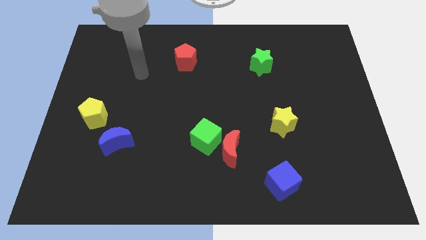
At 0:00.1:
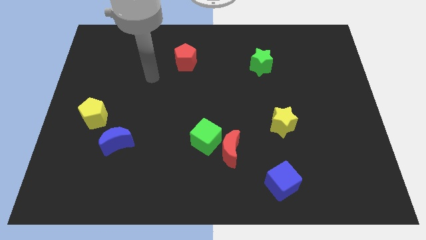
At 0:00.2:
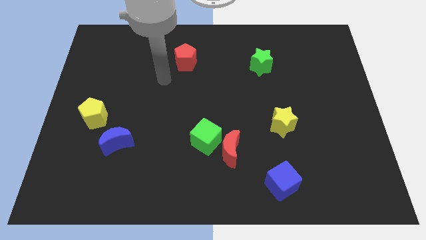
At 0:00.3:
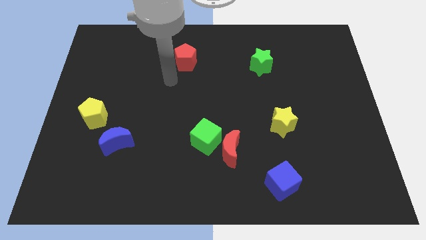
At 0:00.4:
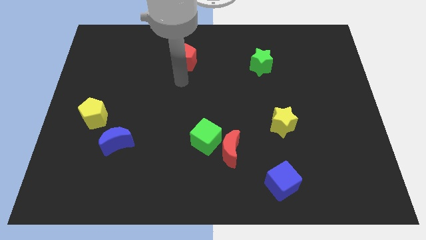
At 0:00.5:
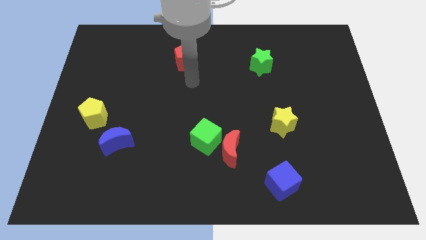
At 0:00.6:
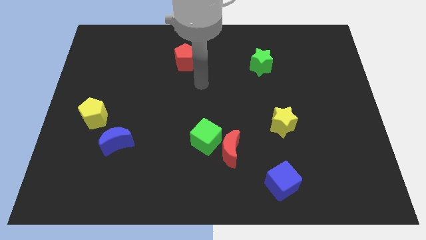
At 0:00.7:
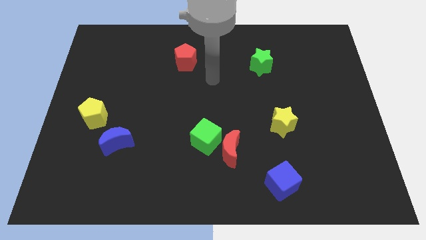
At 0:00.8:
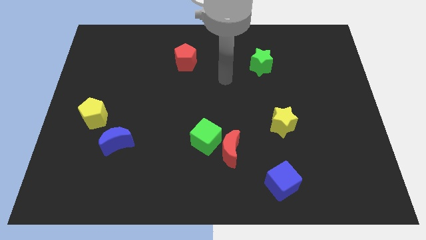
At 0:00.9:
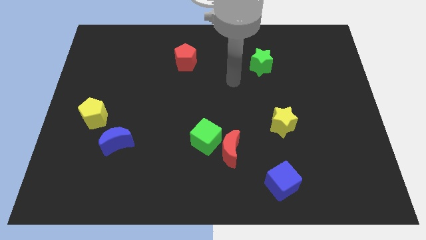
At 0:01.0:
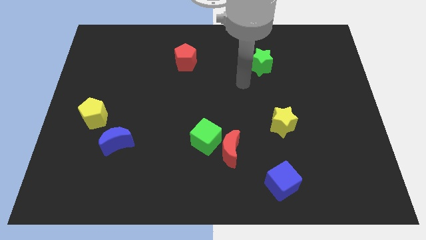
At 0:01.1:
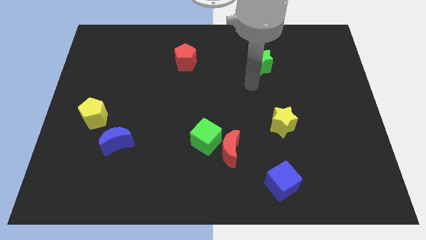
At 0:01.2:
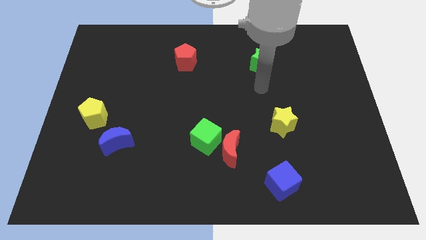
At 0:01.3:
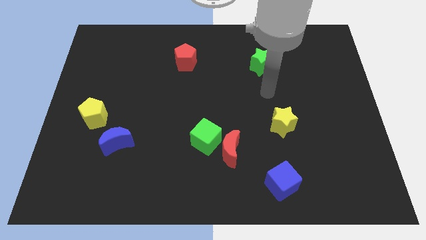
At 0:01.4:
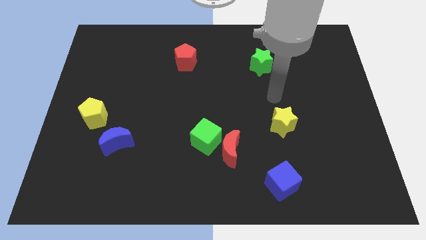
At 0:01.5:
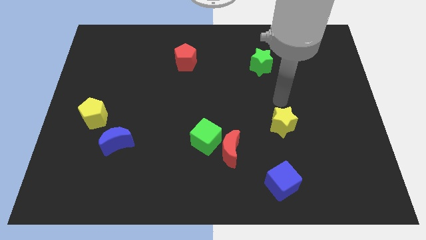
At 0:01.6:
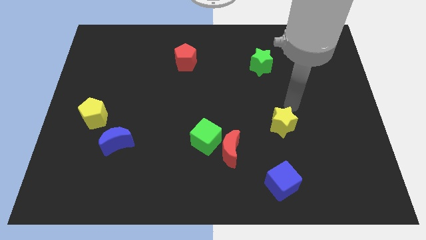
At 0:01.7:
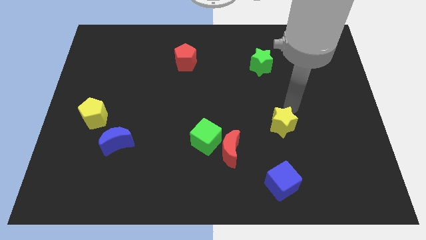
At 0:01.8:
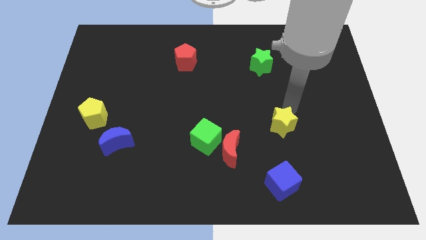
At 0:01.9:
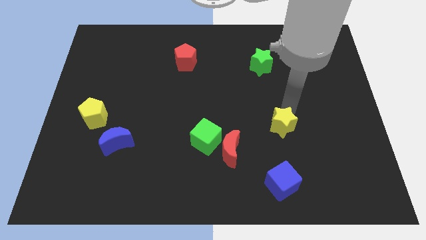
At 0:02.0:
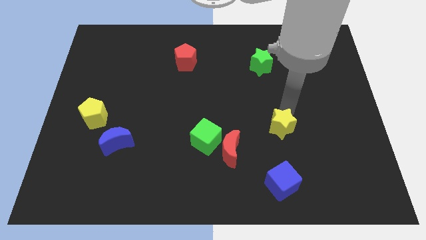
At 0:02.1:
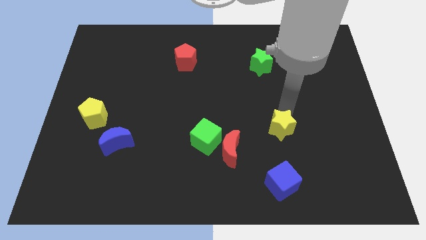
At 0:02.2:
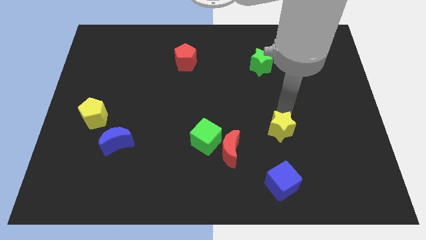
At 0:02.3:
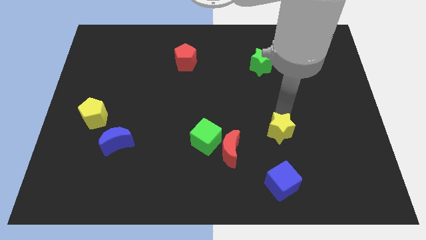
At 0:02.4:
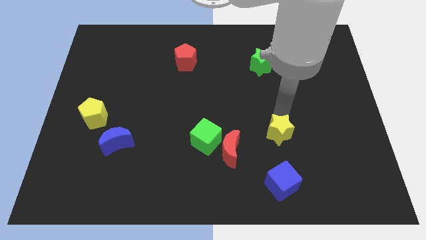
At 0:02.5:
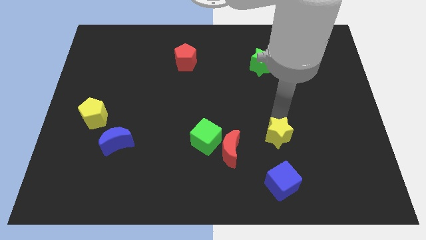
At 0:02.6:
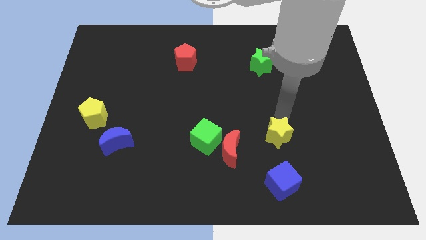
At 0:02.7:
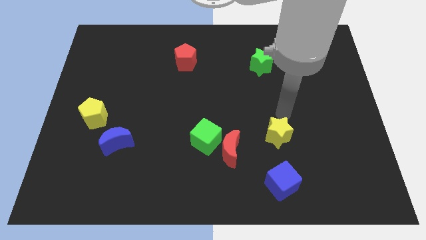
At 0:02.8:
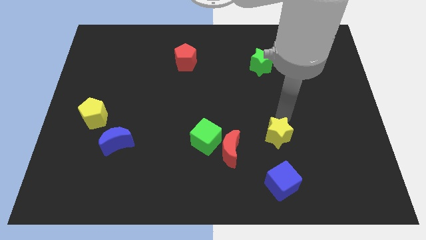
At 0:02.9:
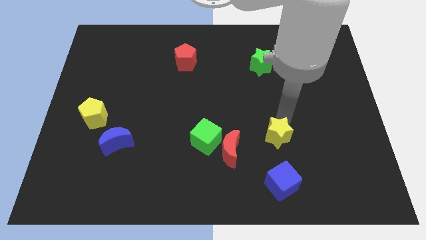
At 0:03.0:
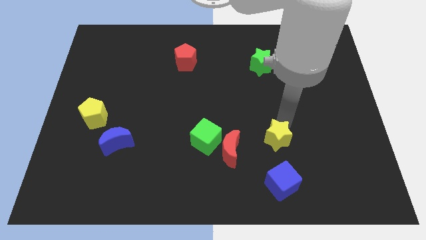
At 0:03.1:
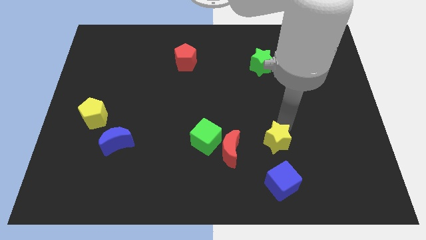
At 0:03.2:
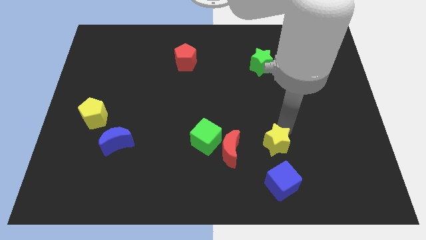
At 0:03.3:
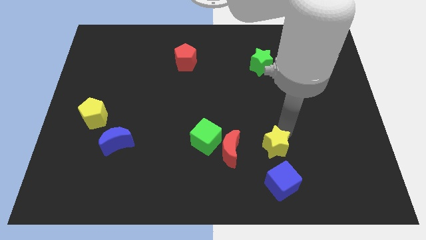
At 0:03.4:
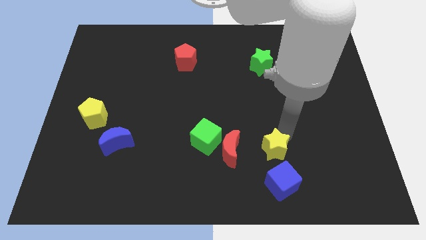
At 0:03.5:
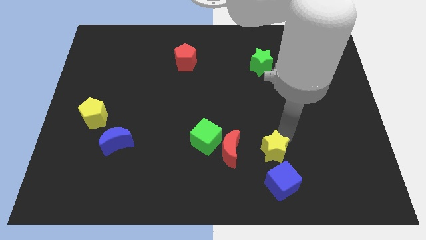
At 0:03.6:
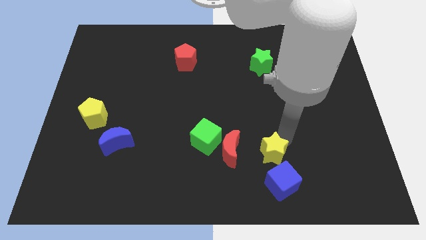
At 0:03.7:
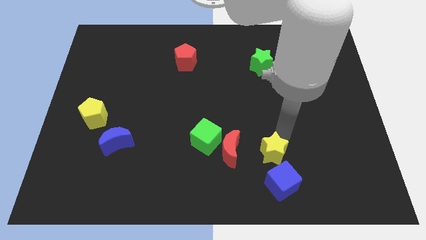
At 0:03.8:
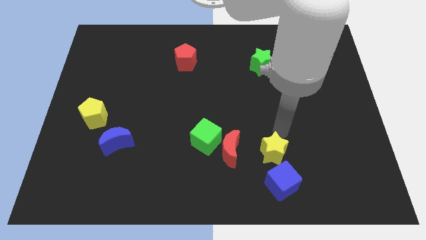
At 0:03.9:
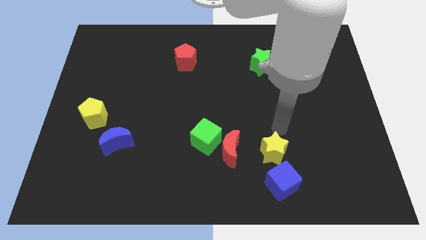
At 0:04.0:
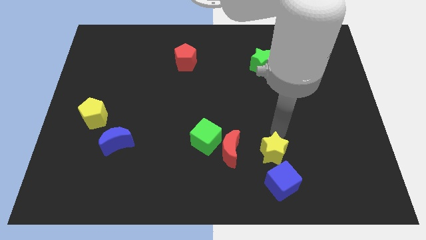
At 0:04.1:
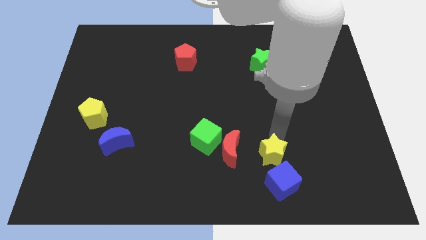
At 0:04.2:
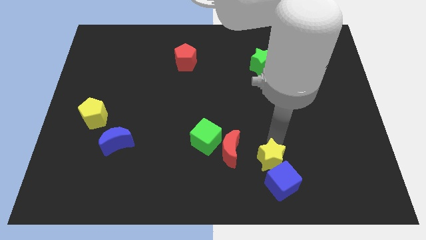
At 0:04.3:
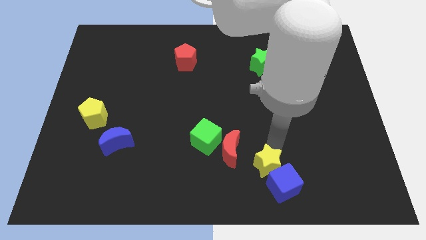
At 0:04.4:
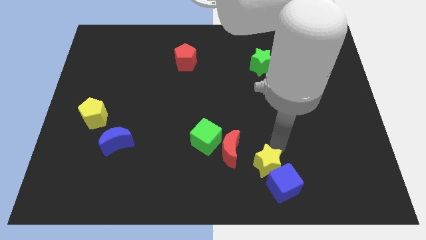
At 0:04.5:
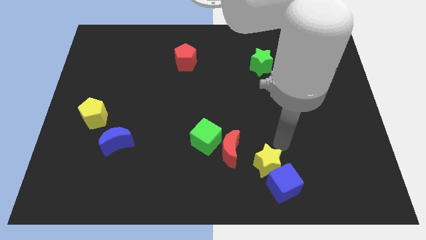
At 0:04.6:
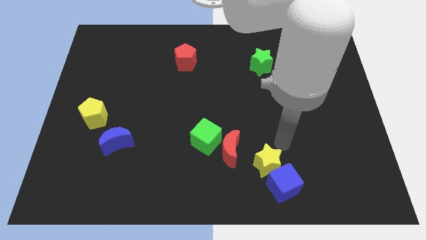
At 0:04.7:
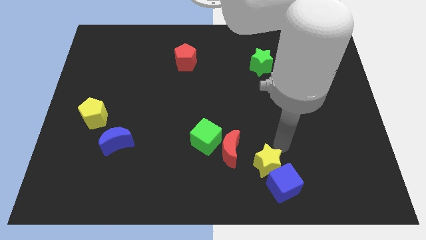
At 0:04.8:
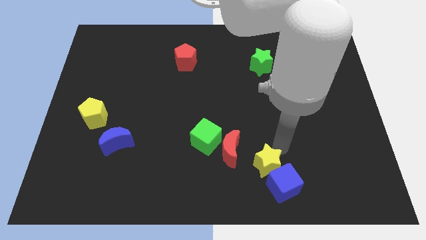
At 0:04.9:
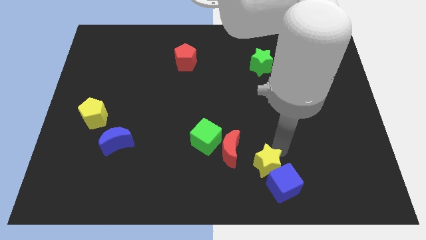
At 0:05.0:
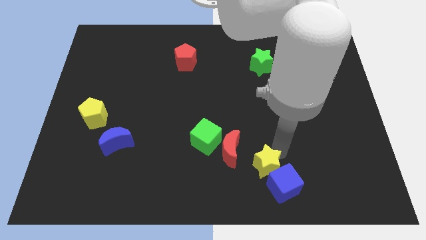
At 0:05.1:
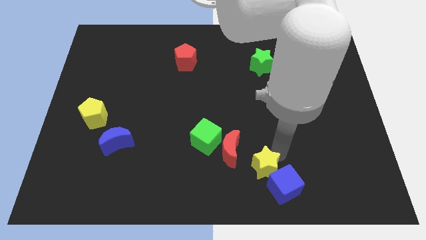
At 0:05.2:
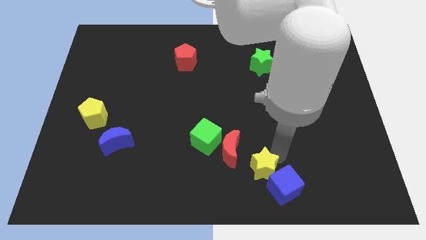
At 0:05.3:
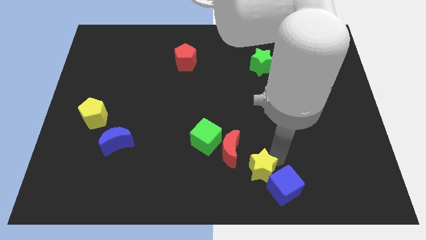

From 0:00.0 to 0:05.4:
slide the yellow star to the bottom

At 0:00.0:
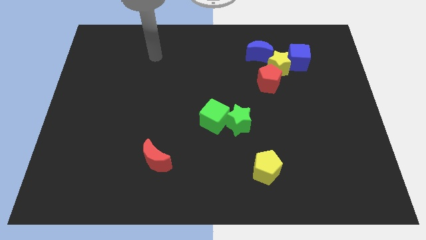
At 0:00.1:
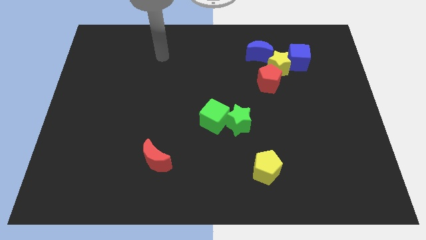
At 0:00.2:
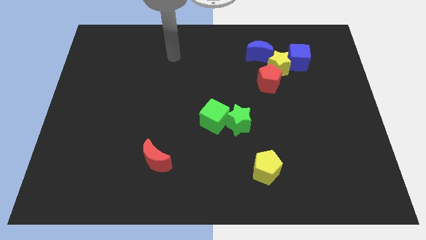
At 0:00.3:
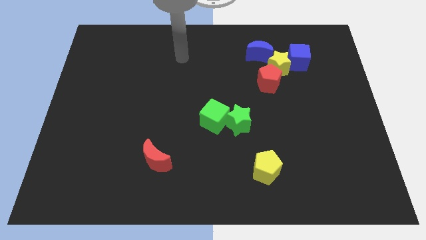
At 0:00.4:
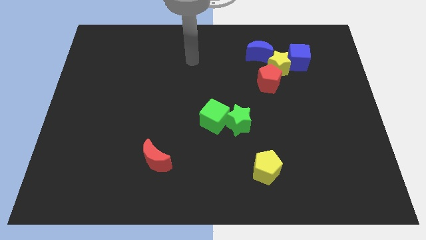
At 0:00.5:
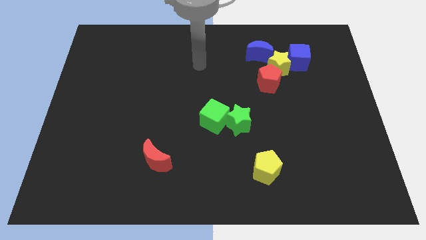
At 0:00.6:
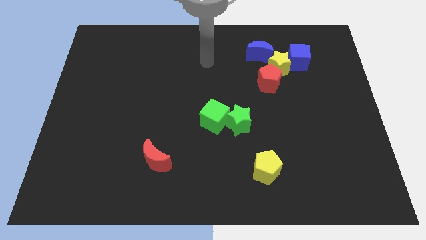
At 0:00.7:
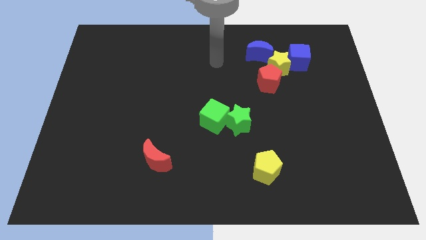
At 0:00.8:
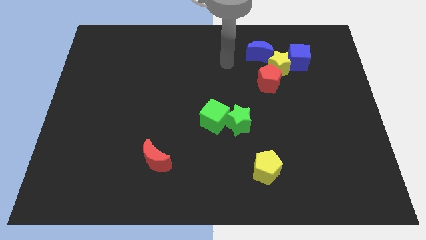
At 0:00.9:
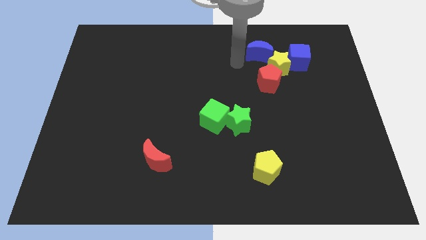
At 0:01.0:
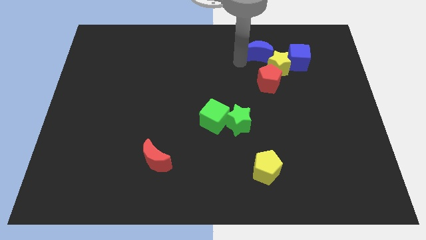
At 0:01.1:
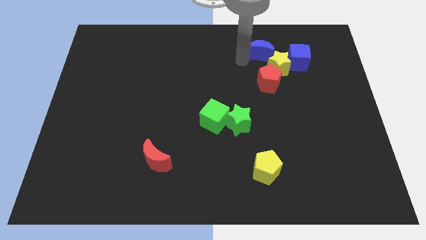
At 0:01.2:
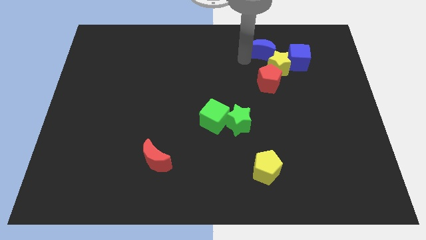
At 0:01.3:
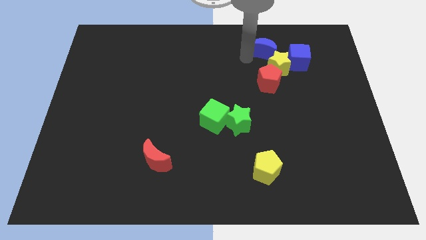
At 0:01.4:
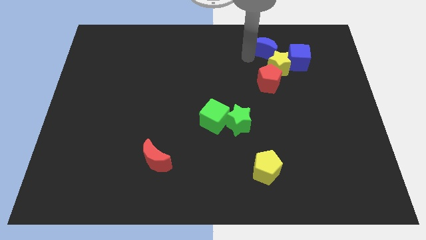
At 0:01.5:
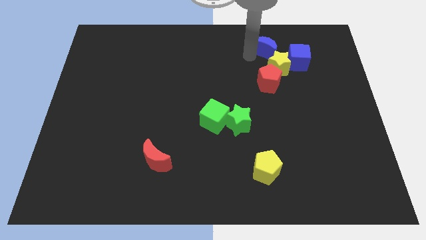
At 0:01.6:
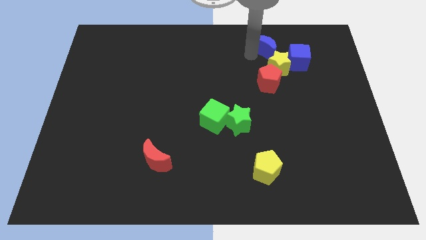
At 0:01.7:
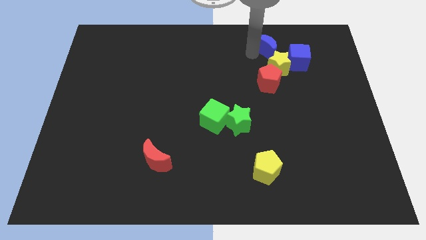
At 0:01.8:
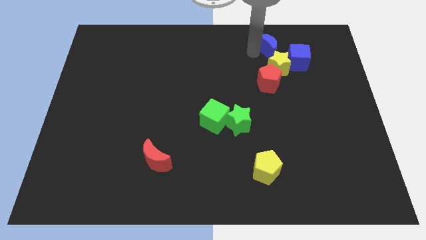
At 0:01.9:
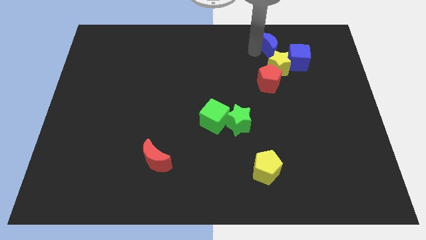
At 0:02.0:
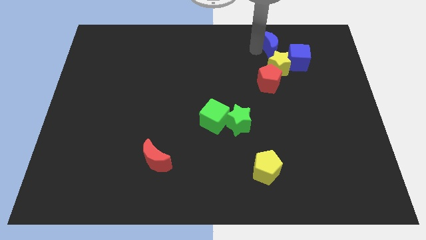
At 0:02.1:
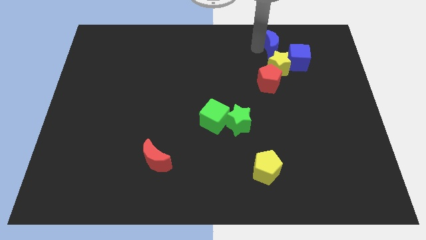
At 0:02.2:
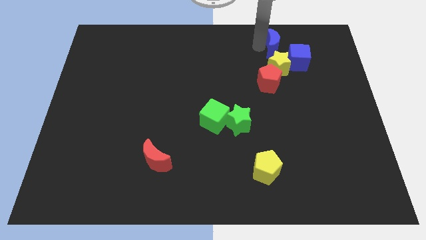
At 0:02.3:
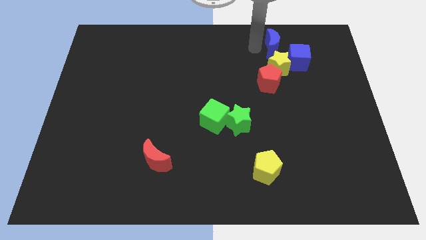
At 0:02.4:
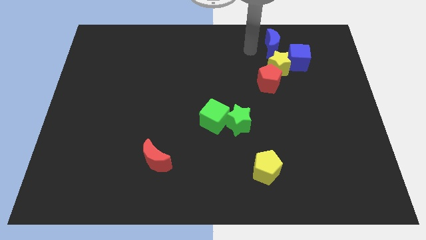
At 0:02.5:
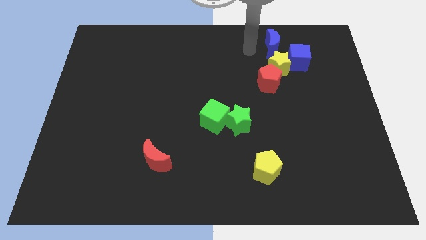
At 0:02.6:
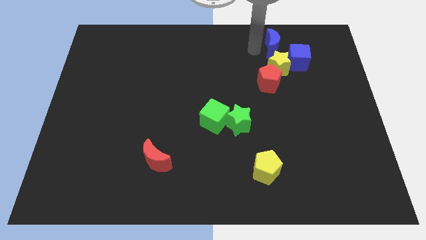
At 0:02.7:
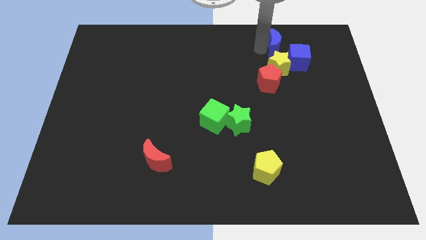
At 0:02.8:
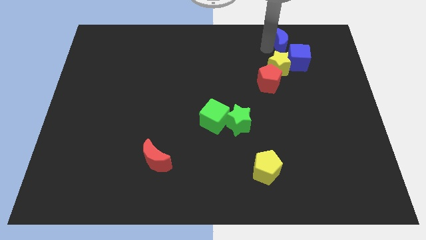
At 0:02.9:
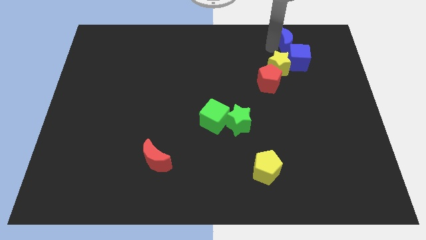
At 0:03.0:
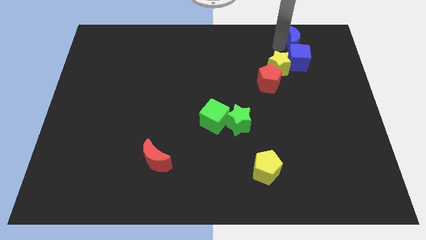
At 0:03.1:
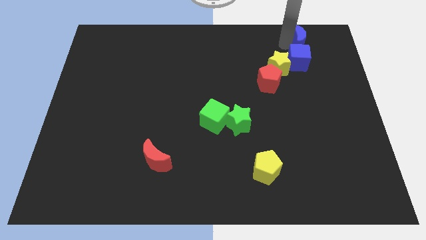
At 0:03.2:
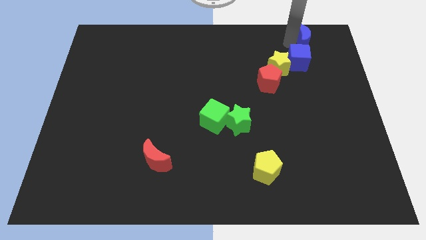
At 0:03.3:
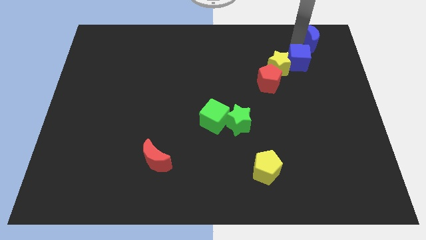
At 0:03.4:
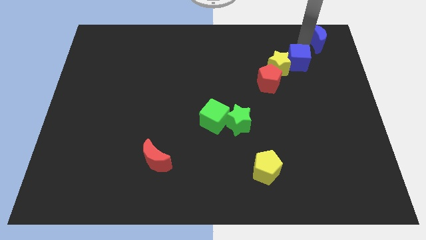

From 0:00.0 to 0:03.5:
slide the blue moon to the top right corner
